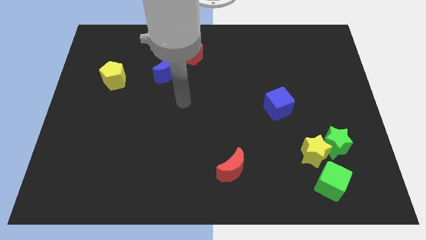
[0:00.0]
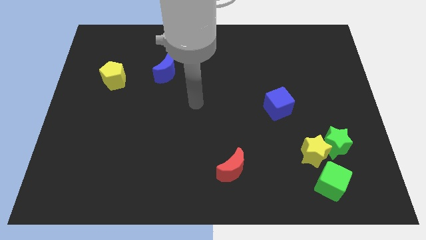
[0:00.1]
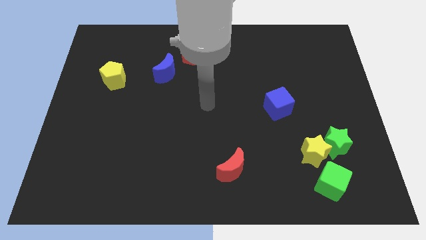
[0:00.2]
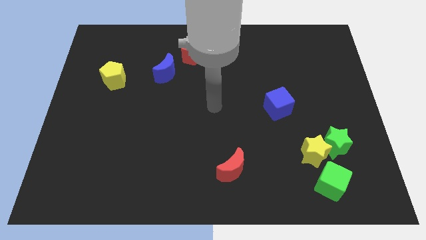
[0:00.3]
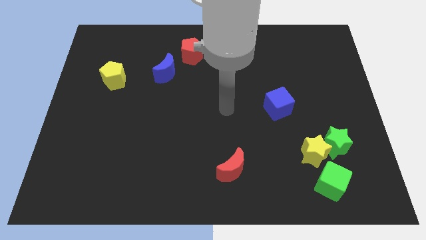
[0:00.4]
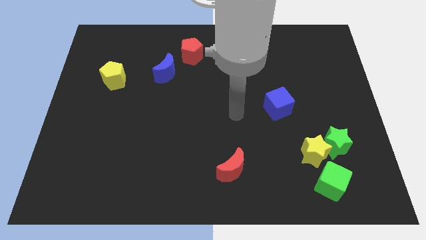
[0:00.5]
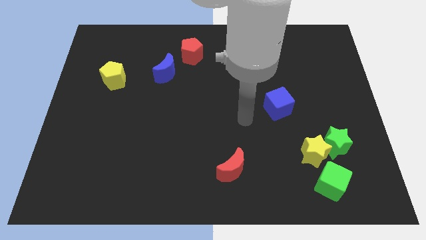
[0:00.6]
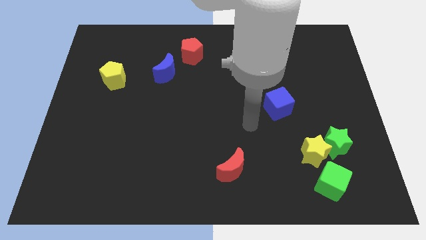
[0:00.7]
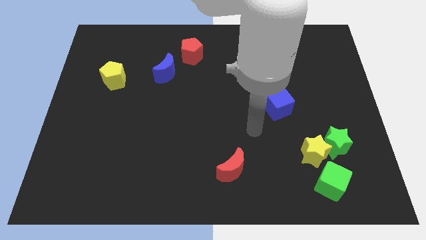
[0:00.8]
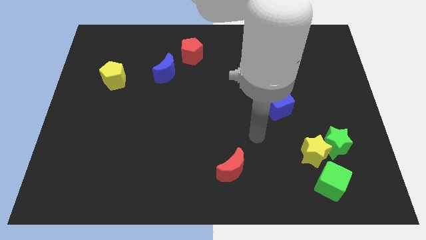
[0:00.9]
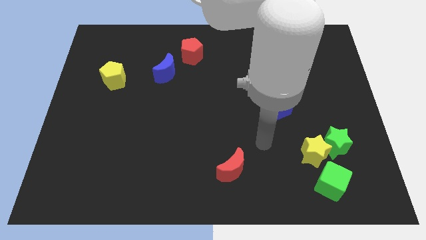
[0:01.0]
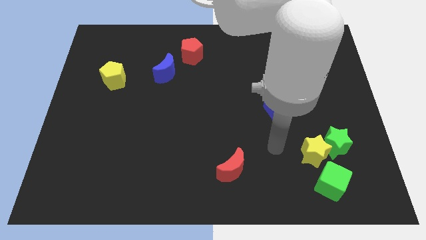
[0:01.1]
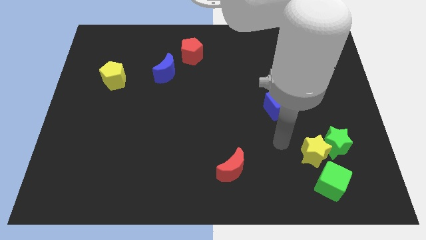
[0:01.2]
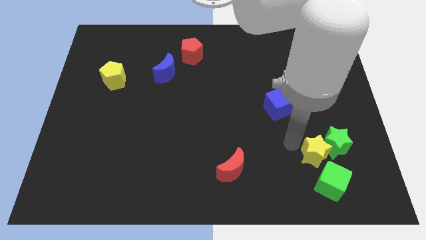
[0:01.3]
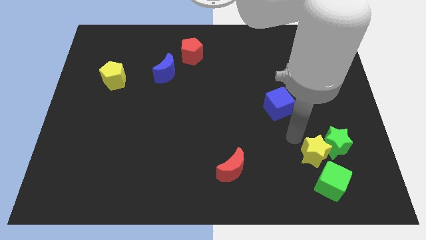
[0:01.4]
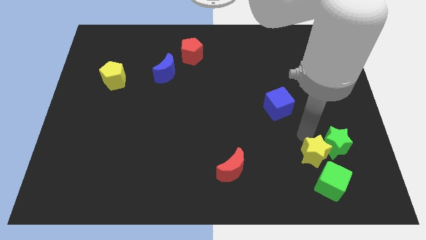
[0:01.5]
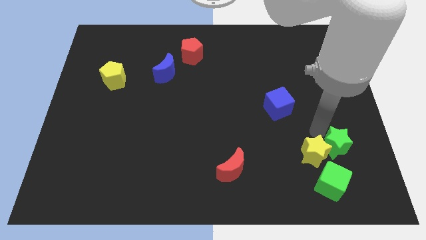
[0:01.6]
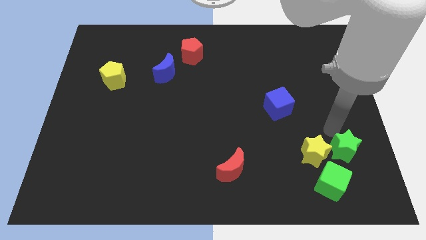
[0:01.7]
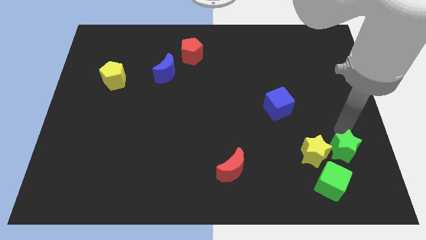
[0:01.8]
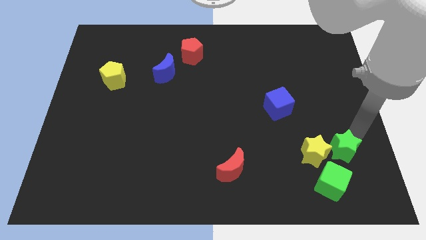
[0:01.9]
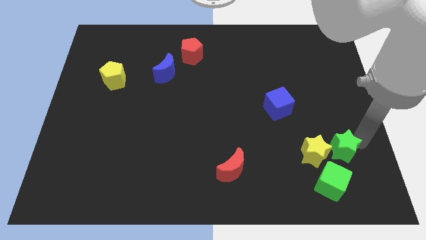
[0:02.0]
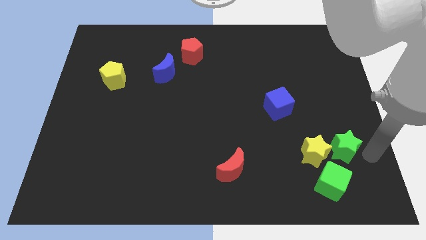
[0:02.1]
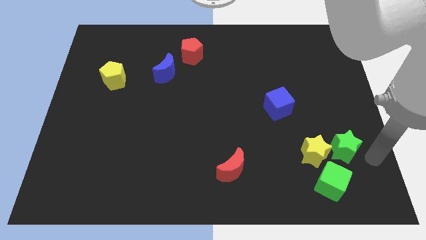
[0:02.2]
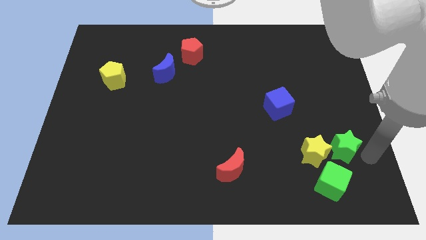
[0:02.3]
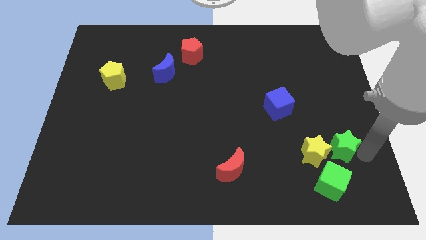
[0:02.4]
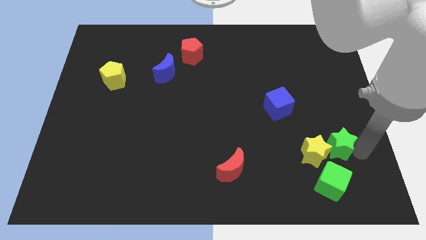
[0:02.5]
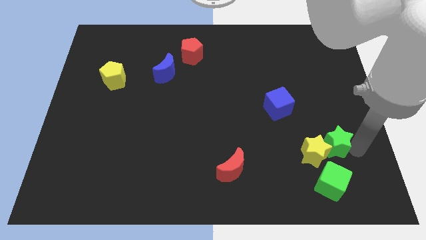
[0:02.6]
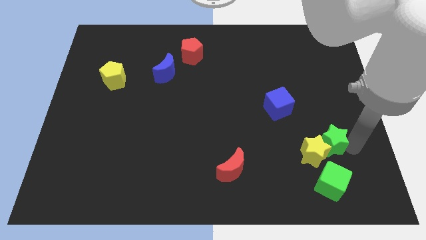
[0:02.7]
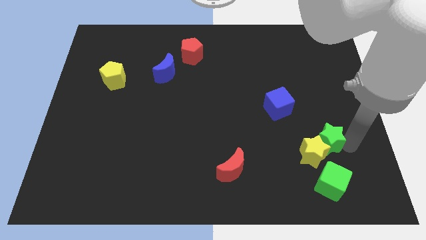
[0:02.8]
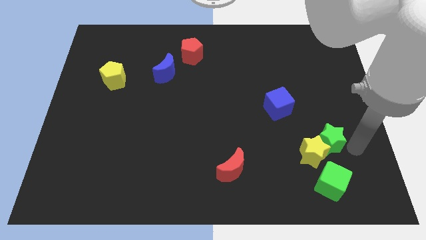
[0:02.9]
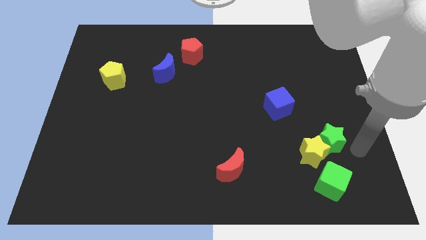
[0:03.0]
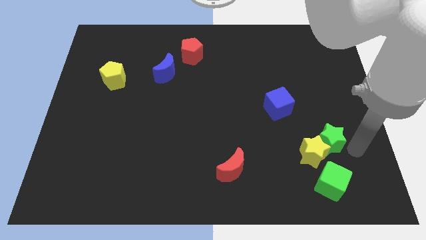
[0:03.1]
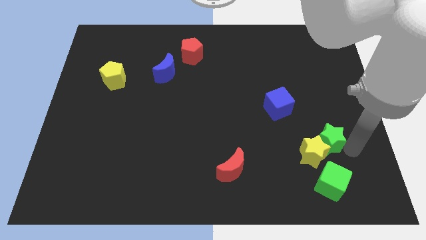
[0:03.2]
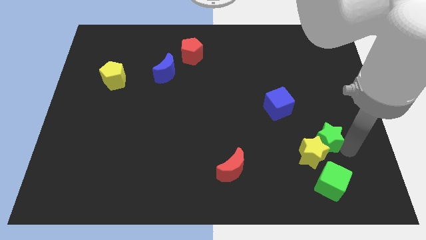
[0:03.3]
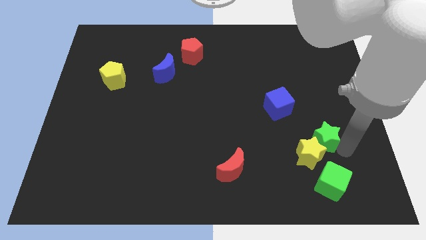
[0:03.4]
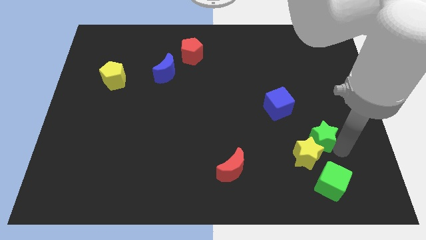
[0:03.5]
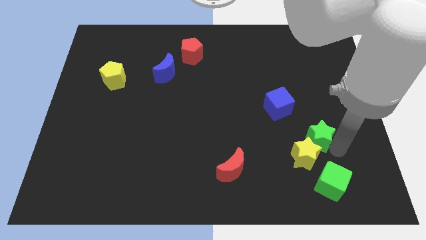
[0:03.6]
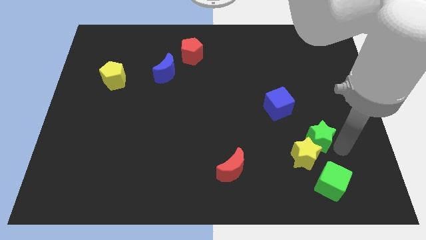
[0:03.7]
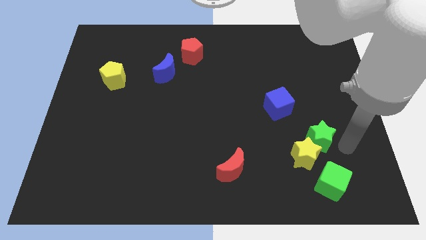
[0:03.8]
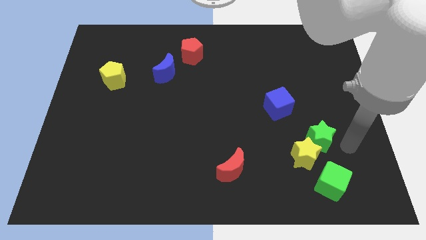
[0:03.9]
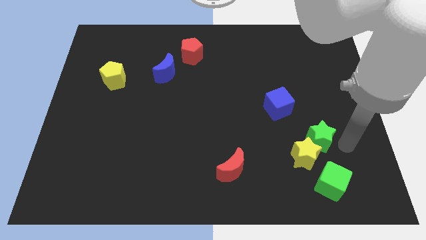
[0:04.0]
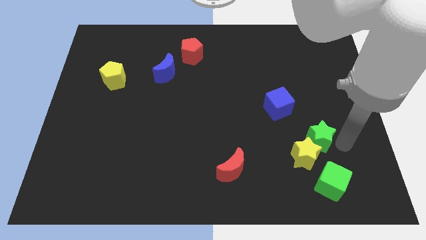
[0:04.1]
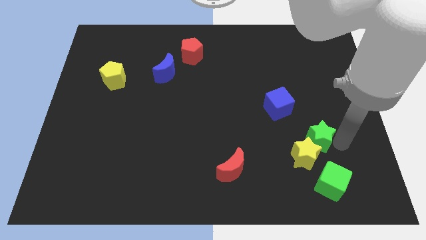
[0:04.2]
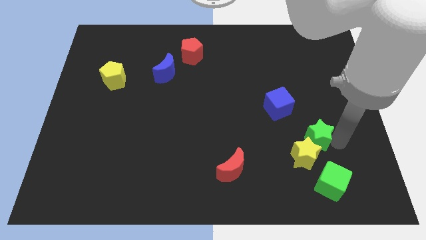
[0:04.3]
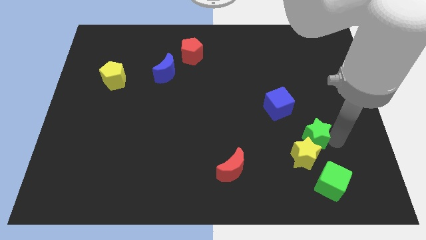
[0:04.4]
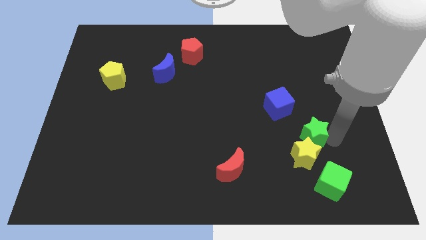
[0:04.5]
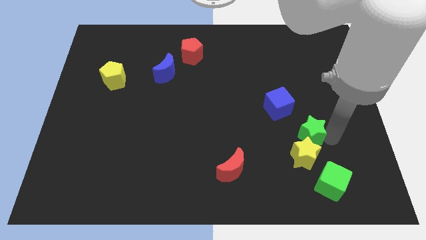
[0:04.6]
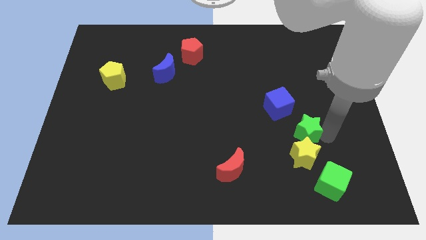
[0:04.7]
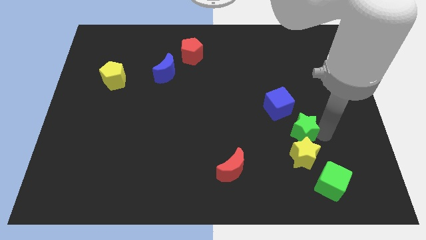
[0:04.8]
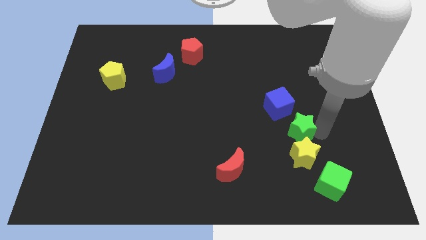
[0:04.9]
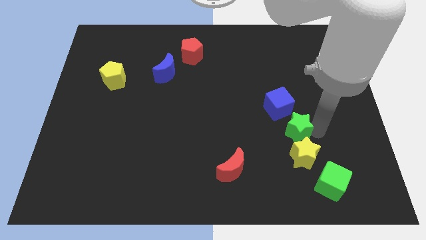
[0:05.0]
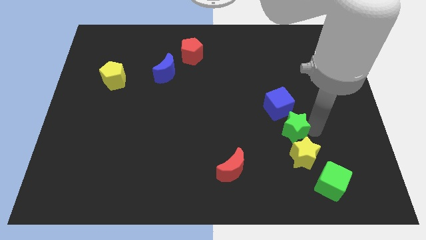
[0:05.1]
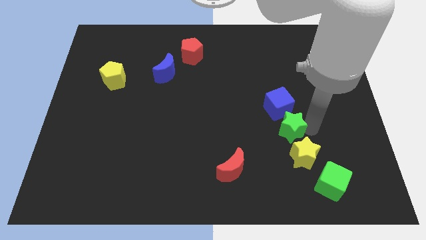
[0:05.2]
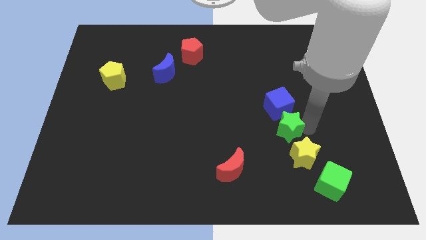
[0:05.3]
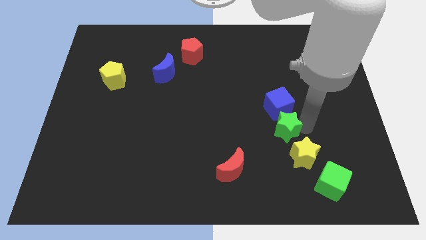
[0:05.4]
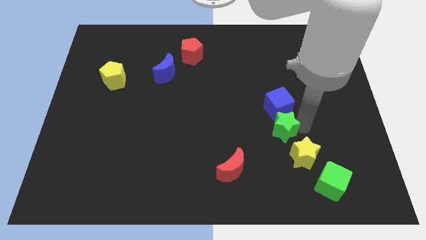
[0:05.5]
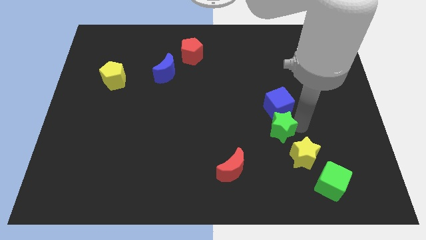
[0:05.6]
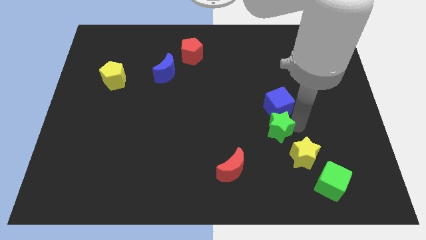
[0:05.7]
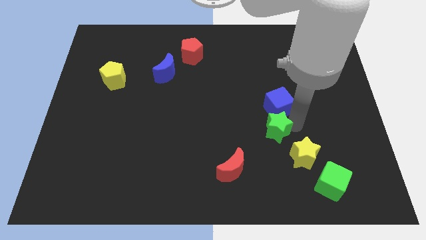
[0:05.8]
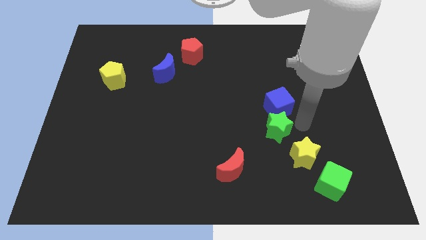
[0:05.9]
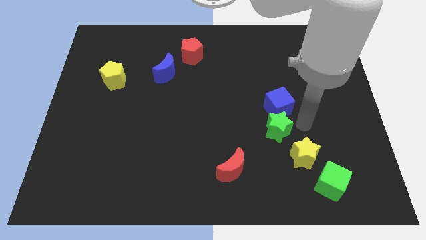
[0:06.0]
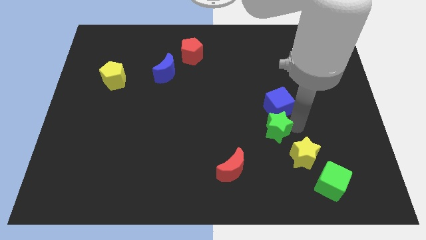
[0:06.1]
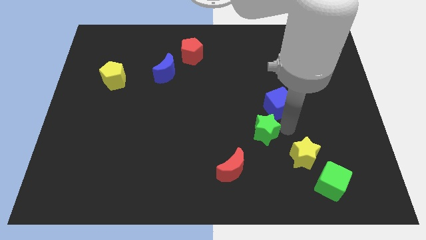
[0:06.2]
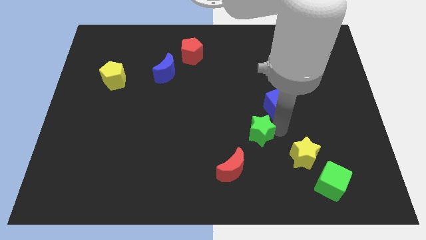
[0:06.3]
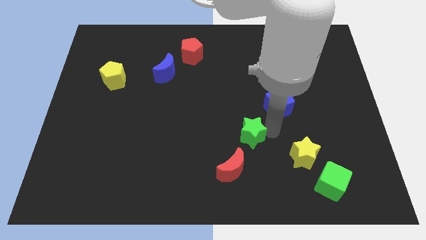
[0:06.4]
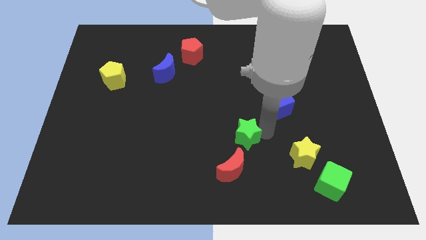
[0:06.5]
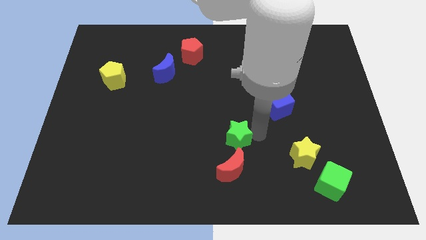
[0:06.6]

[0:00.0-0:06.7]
slide the green star left

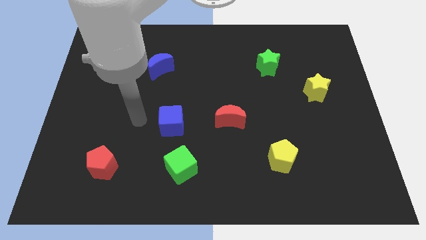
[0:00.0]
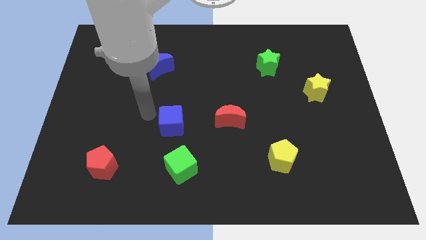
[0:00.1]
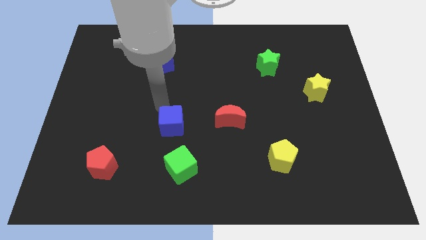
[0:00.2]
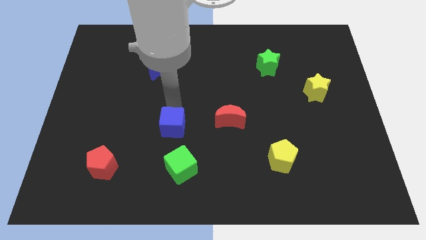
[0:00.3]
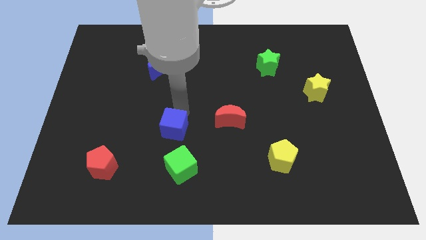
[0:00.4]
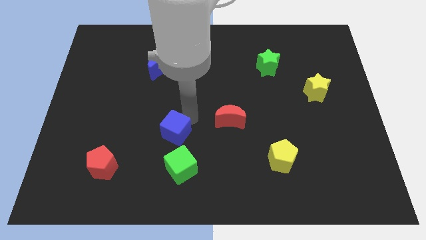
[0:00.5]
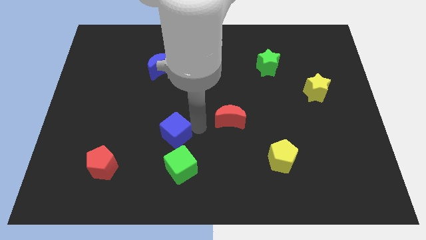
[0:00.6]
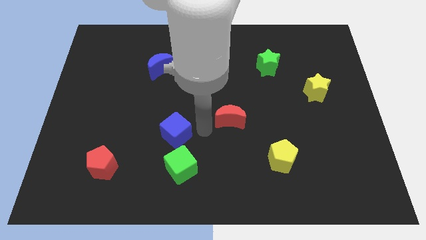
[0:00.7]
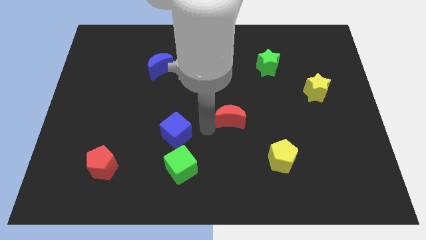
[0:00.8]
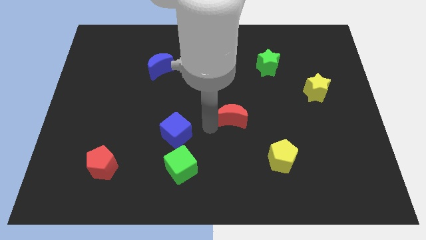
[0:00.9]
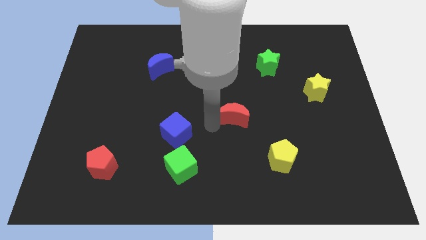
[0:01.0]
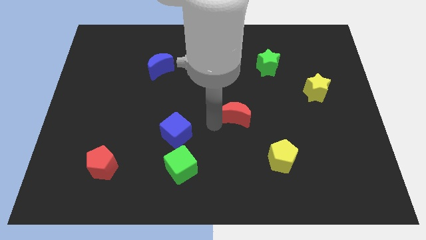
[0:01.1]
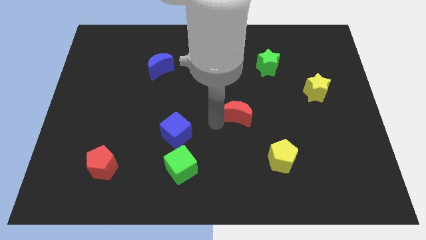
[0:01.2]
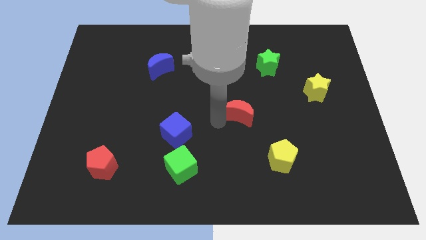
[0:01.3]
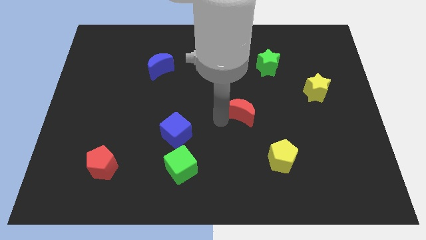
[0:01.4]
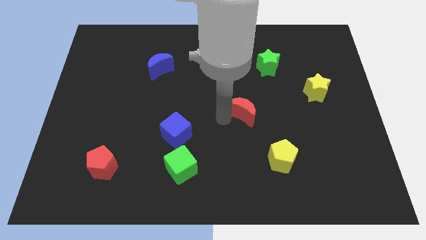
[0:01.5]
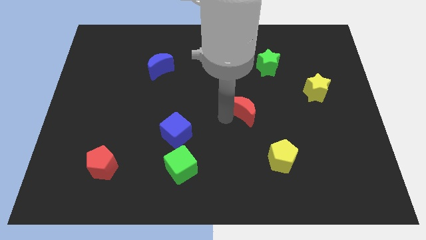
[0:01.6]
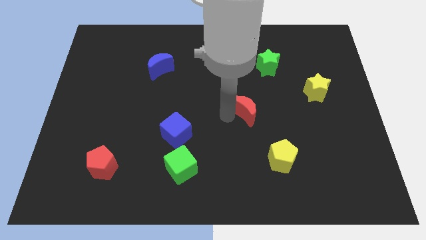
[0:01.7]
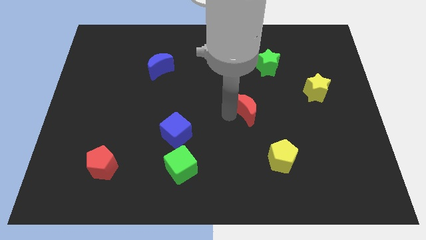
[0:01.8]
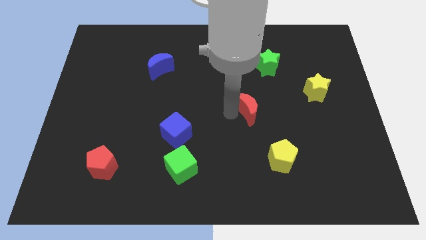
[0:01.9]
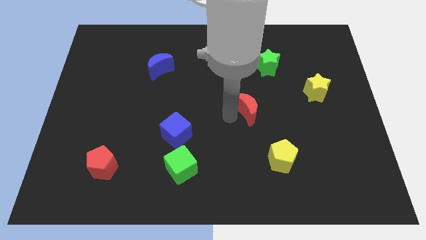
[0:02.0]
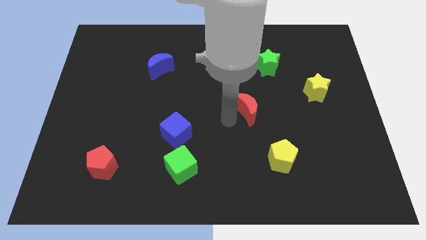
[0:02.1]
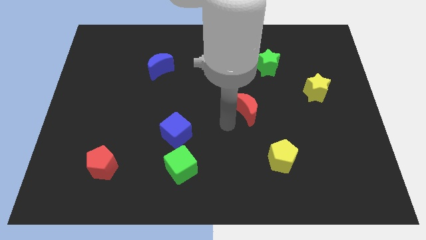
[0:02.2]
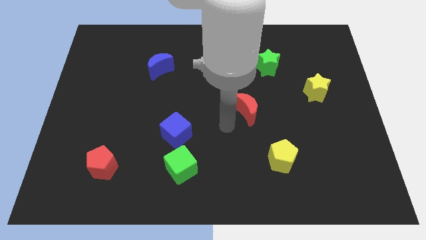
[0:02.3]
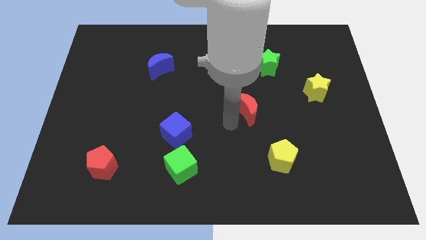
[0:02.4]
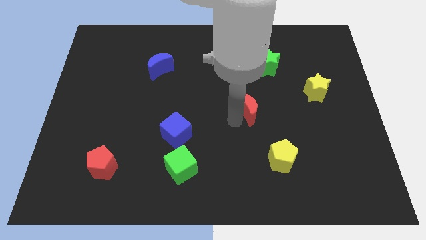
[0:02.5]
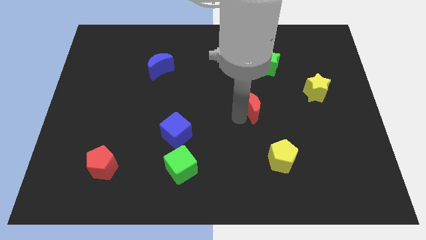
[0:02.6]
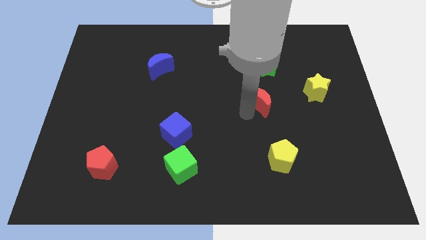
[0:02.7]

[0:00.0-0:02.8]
slightly slide the red moon up and right
